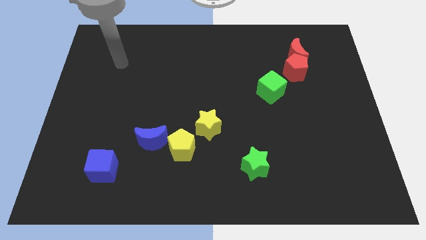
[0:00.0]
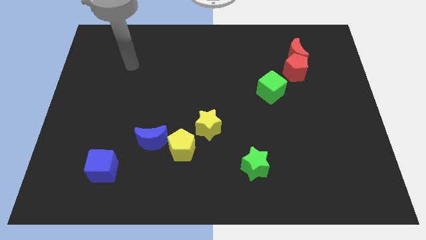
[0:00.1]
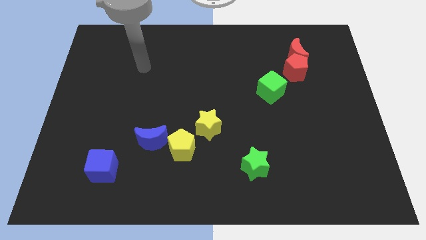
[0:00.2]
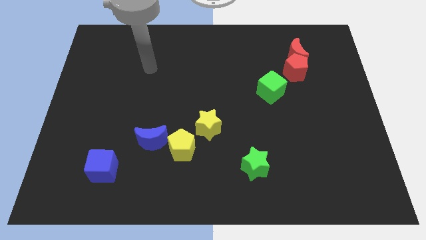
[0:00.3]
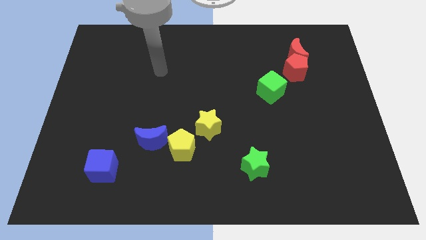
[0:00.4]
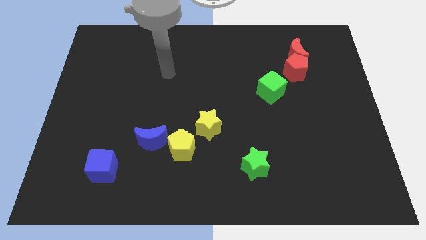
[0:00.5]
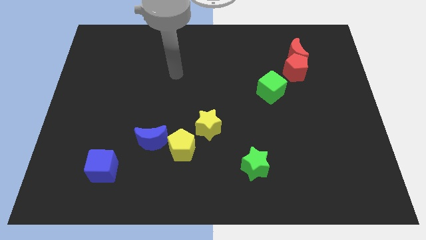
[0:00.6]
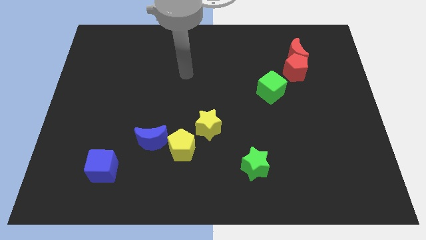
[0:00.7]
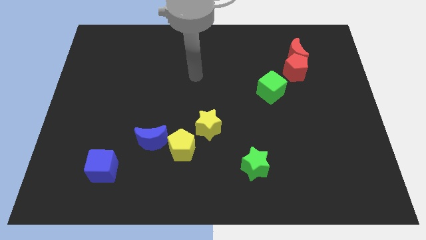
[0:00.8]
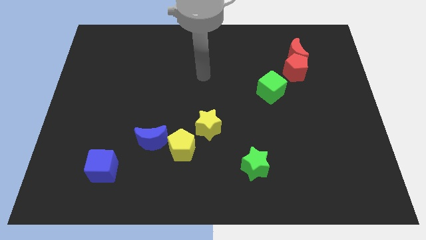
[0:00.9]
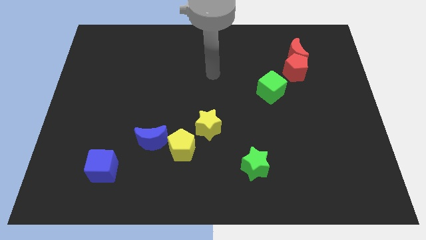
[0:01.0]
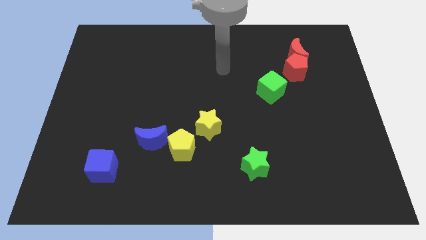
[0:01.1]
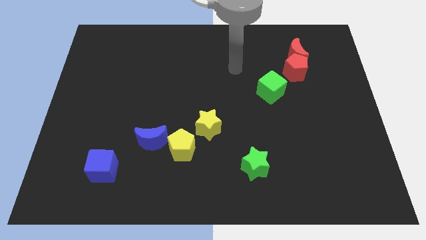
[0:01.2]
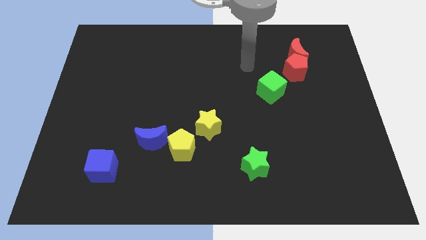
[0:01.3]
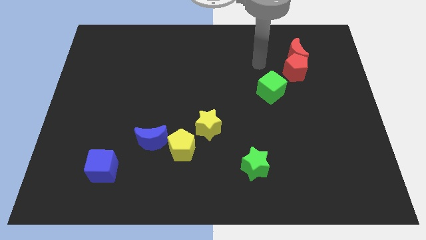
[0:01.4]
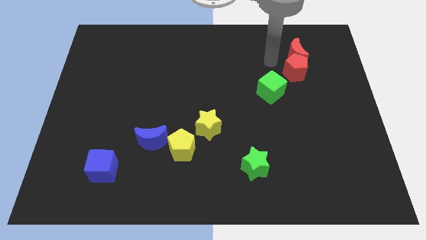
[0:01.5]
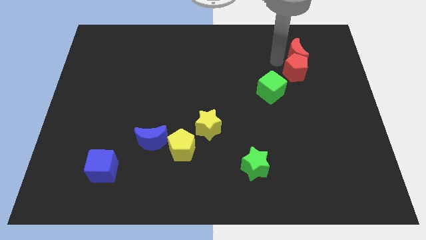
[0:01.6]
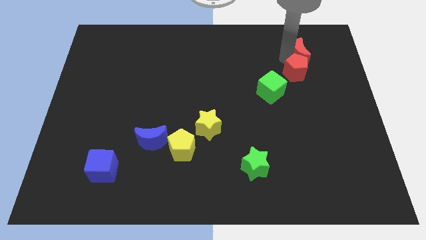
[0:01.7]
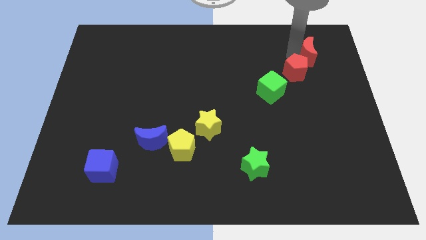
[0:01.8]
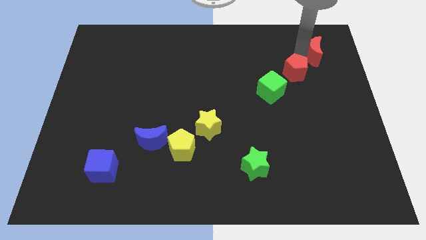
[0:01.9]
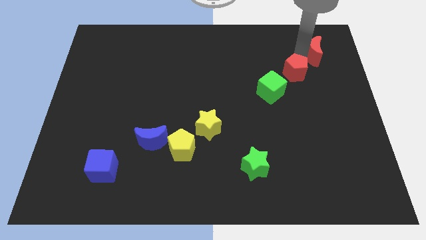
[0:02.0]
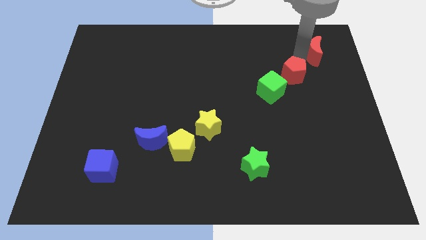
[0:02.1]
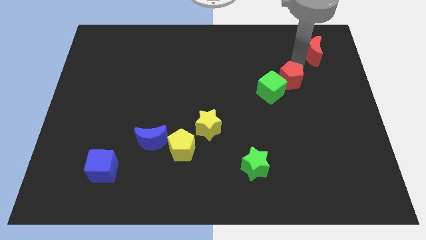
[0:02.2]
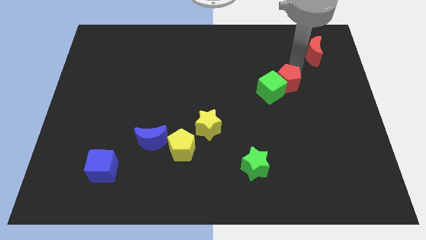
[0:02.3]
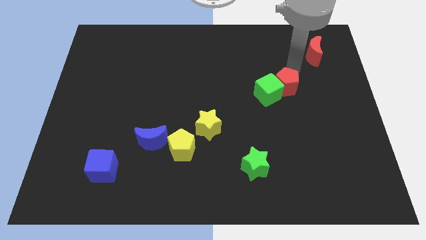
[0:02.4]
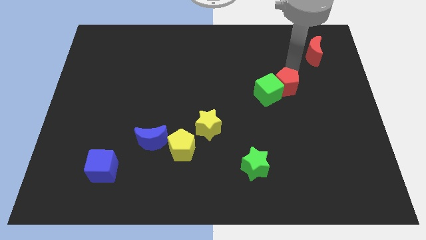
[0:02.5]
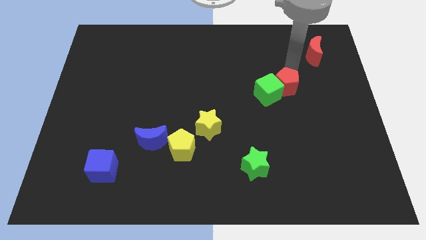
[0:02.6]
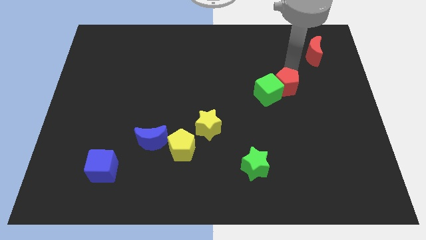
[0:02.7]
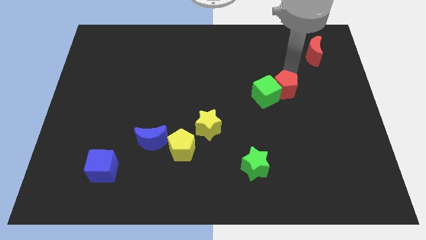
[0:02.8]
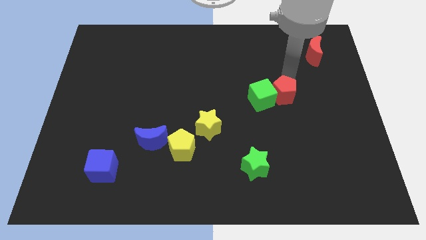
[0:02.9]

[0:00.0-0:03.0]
move the red pentagon a little diagonally down and left

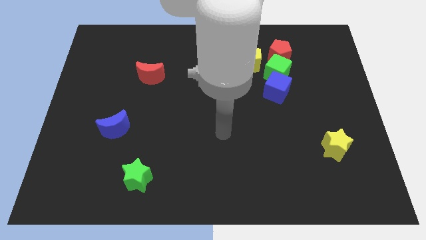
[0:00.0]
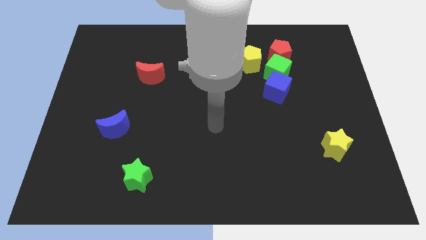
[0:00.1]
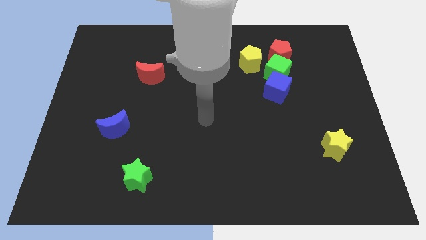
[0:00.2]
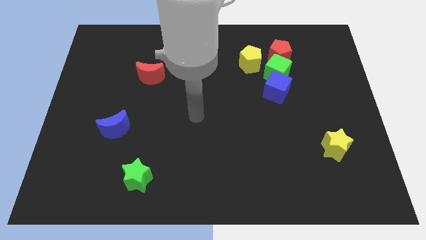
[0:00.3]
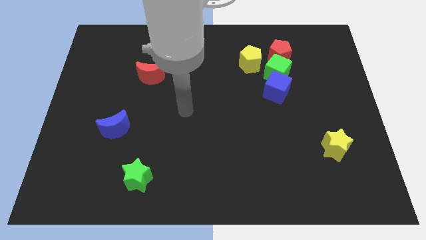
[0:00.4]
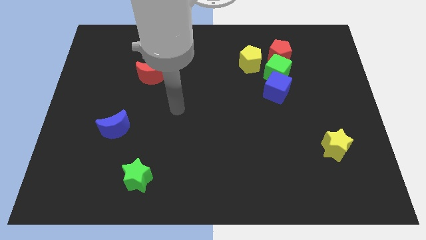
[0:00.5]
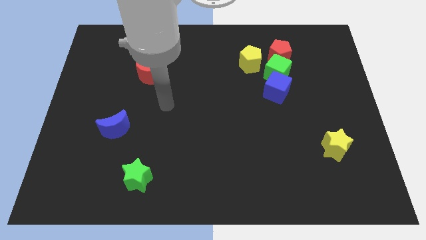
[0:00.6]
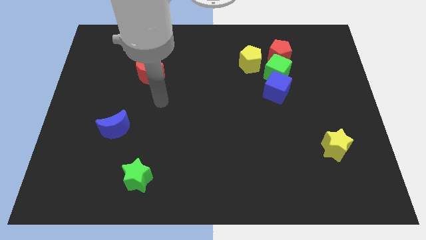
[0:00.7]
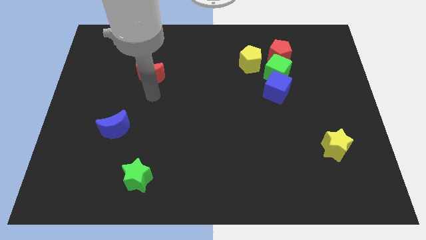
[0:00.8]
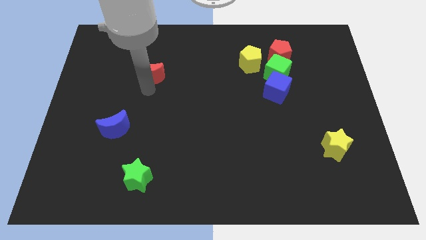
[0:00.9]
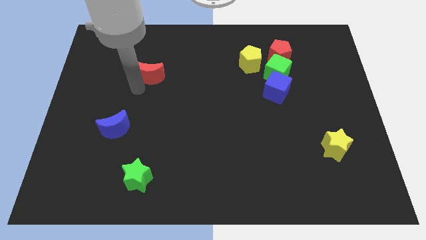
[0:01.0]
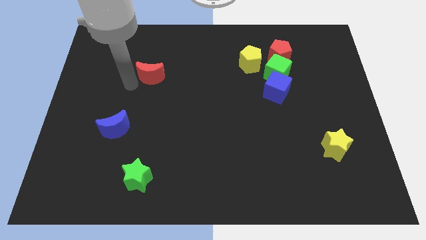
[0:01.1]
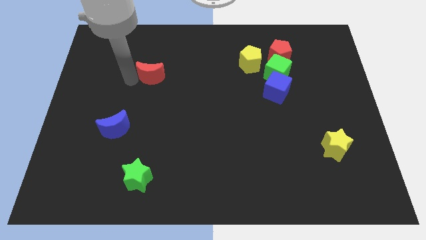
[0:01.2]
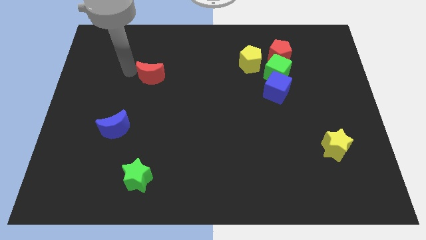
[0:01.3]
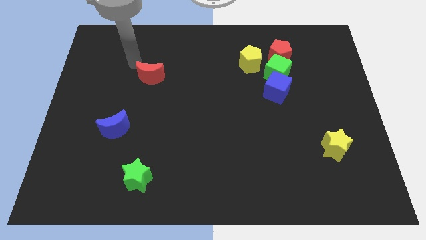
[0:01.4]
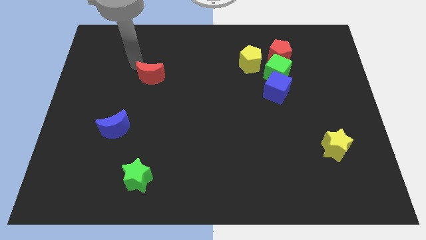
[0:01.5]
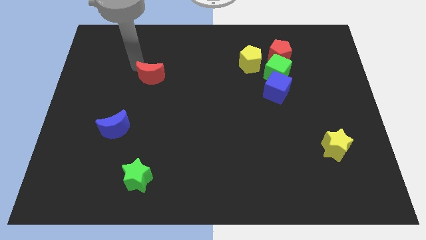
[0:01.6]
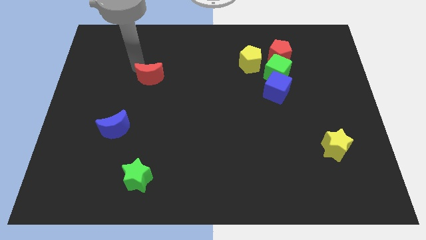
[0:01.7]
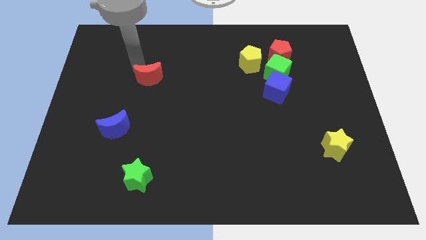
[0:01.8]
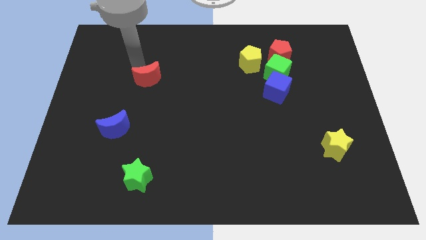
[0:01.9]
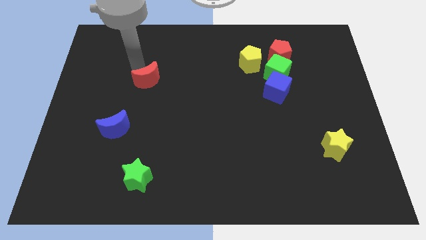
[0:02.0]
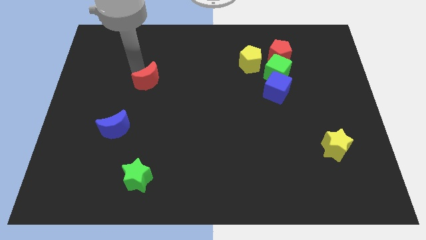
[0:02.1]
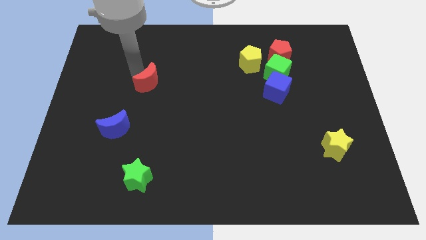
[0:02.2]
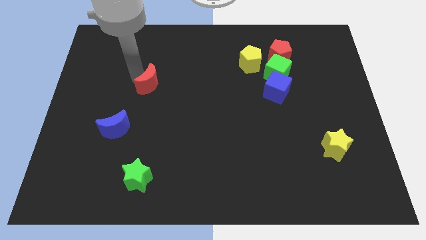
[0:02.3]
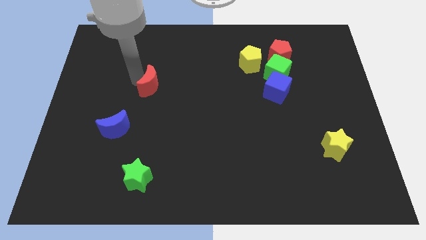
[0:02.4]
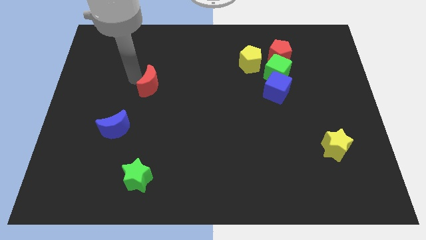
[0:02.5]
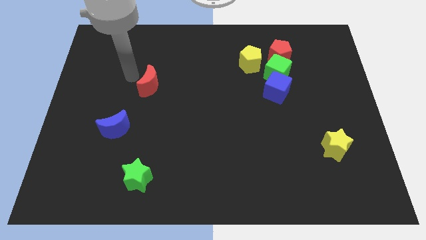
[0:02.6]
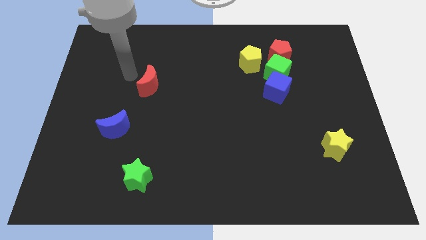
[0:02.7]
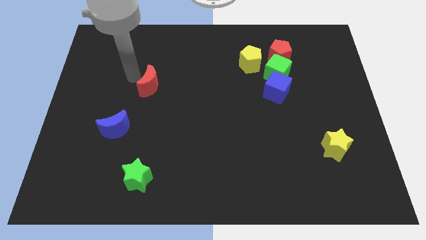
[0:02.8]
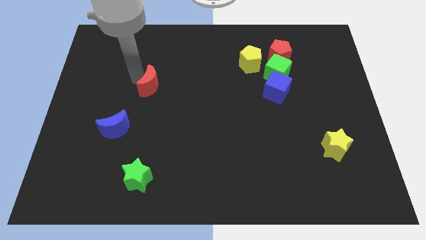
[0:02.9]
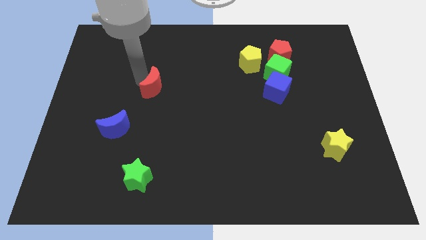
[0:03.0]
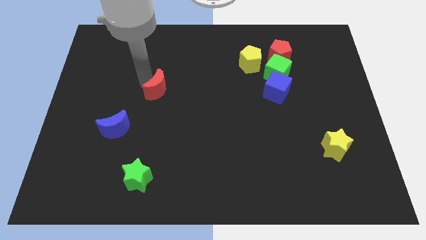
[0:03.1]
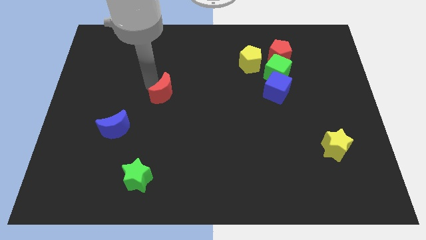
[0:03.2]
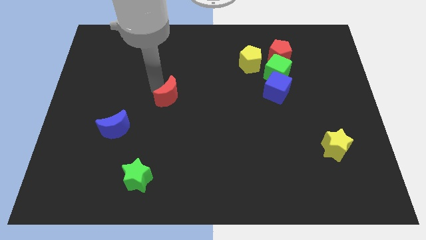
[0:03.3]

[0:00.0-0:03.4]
push the red moon a little bit downwards and then right

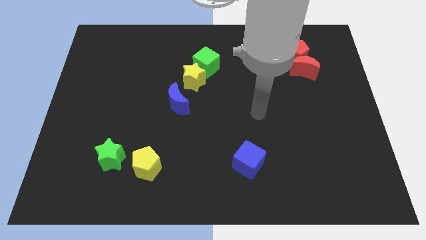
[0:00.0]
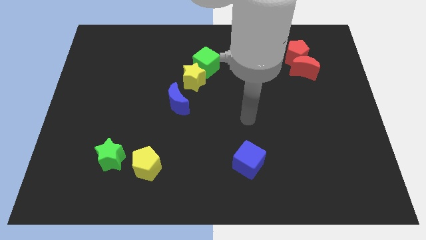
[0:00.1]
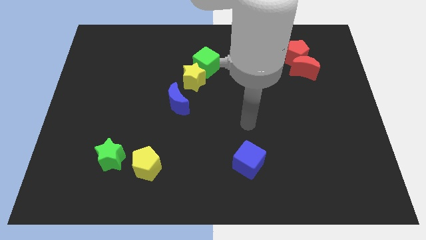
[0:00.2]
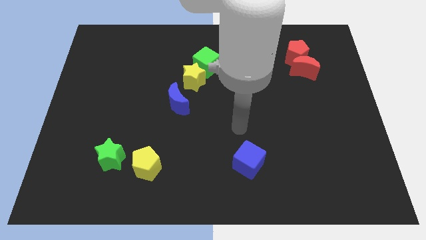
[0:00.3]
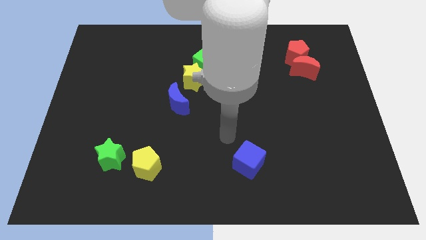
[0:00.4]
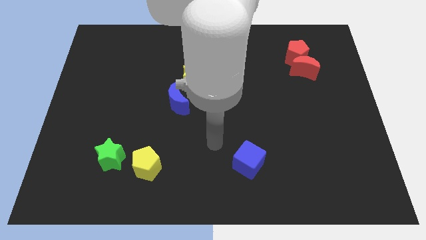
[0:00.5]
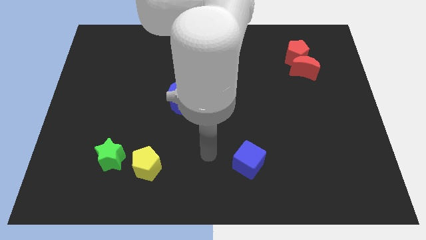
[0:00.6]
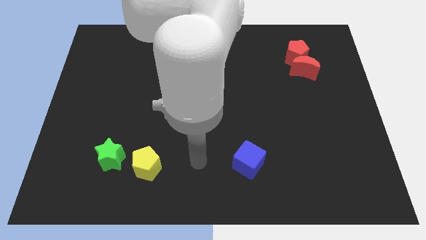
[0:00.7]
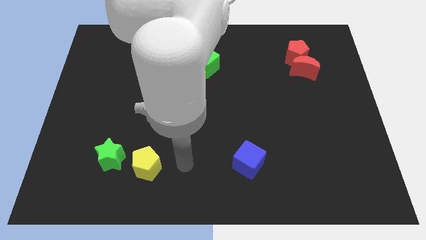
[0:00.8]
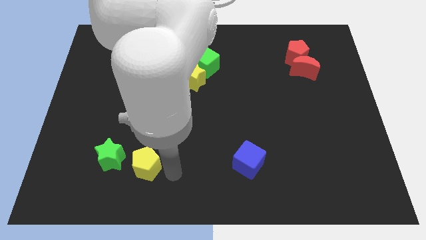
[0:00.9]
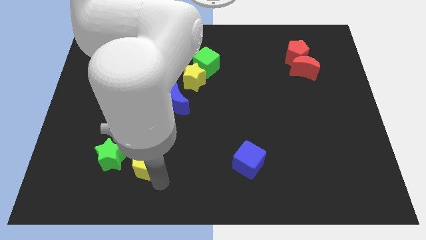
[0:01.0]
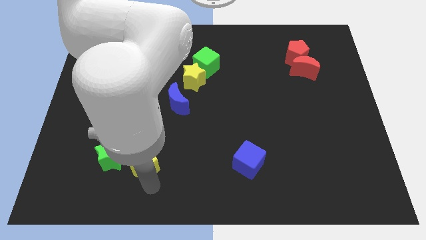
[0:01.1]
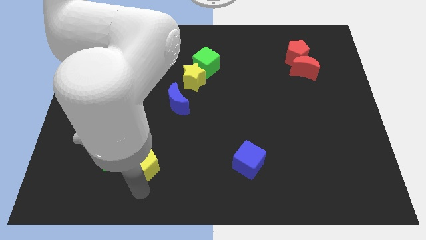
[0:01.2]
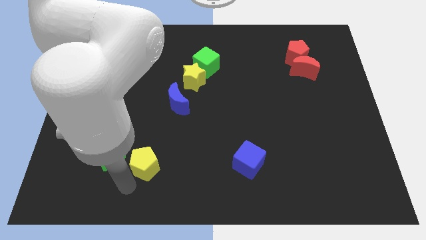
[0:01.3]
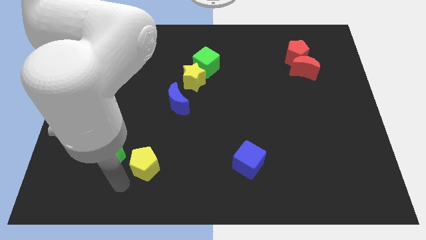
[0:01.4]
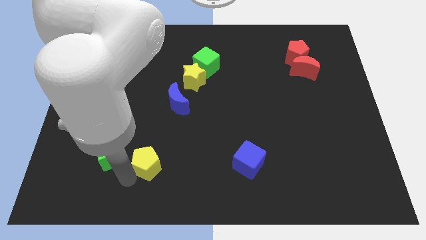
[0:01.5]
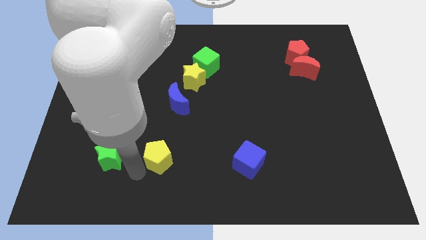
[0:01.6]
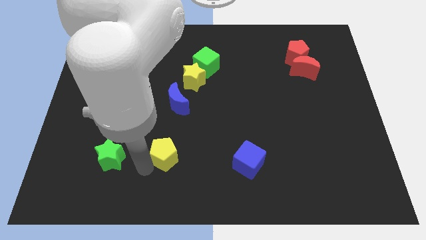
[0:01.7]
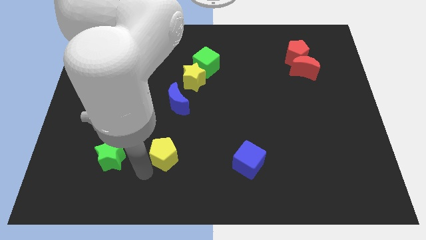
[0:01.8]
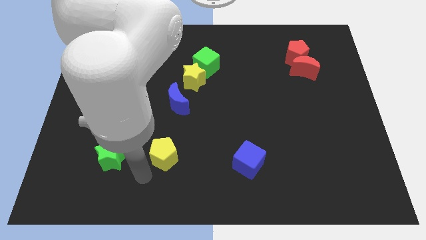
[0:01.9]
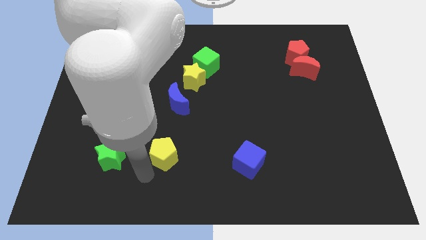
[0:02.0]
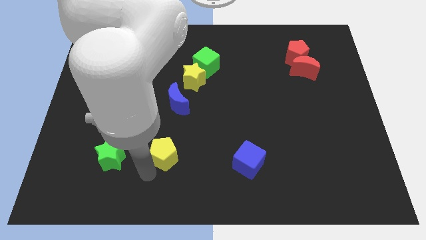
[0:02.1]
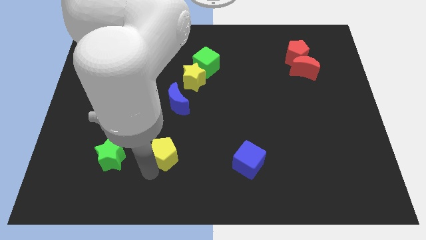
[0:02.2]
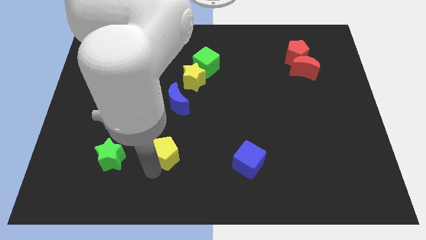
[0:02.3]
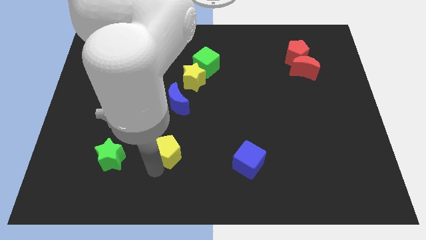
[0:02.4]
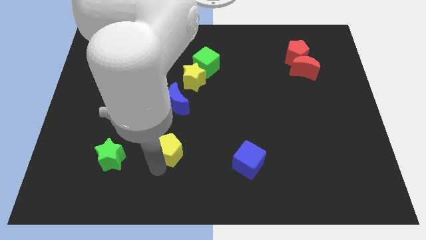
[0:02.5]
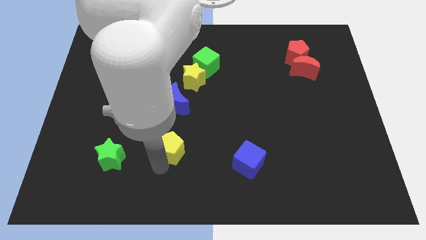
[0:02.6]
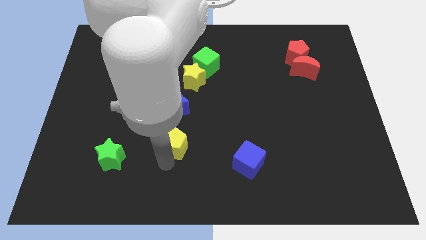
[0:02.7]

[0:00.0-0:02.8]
slightly move the yellow pentagon diagonally upwards and right
